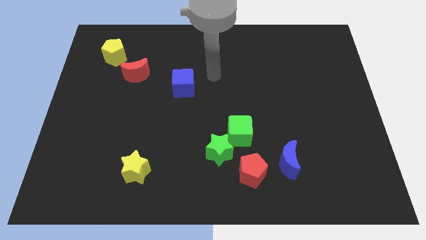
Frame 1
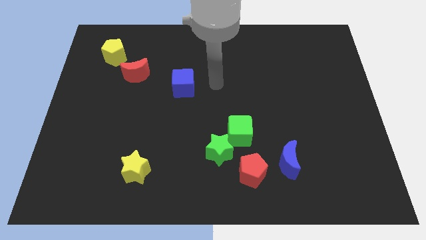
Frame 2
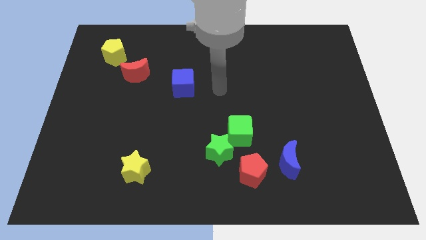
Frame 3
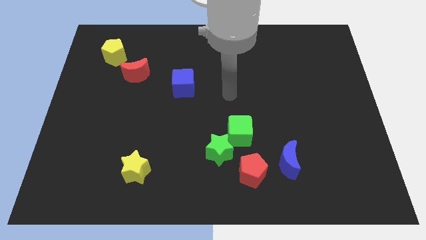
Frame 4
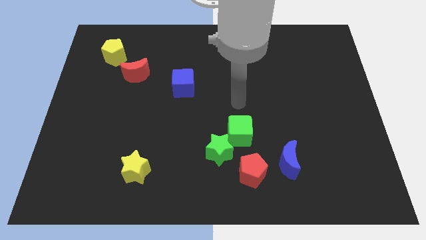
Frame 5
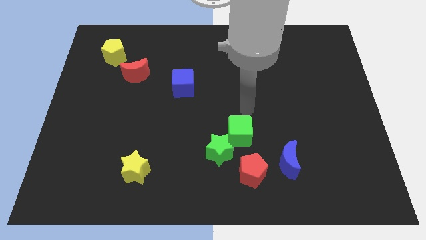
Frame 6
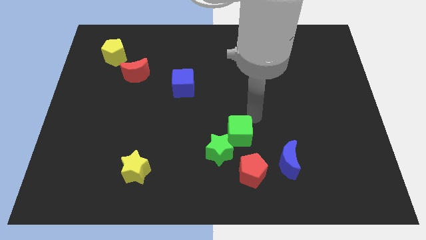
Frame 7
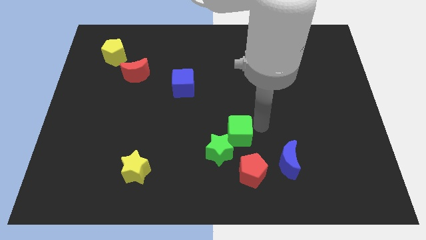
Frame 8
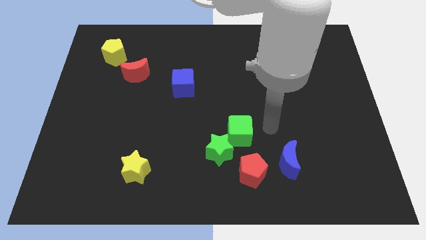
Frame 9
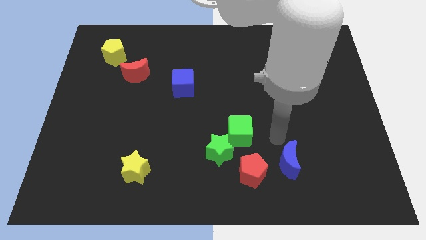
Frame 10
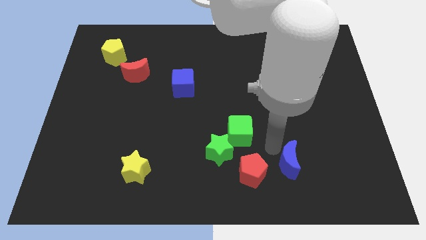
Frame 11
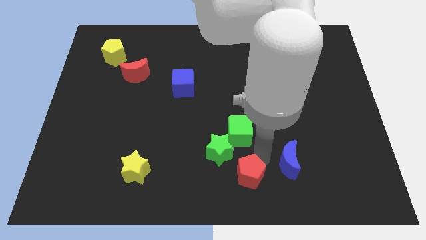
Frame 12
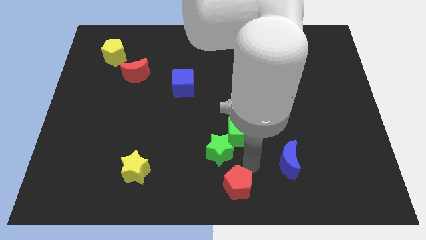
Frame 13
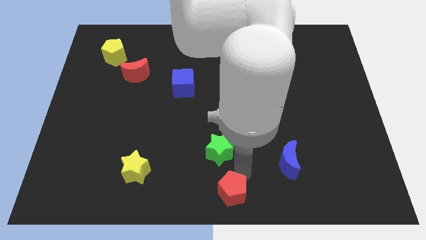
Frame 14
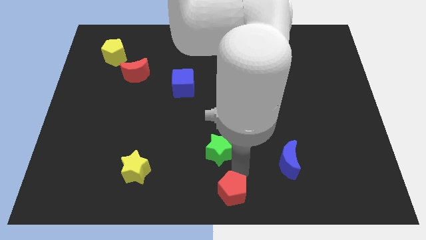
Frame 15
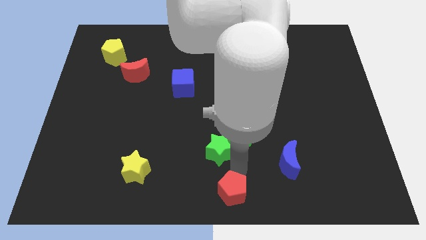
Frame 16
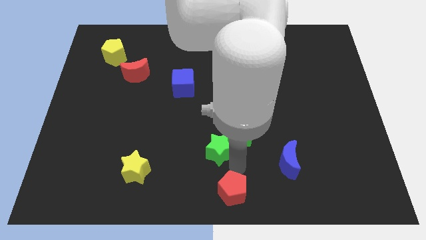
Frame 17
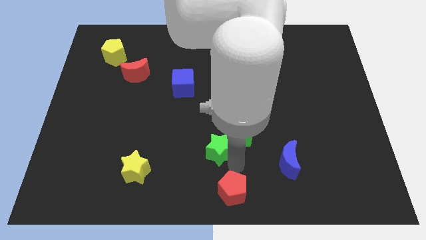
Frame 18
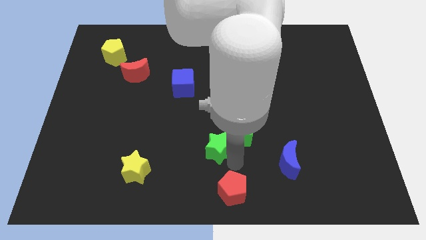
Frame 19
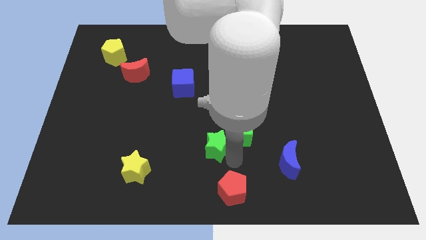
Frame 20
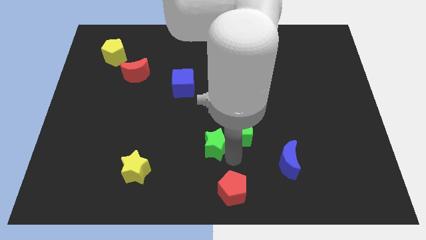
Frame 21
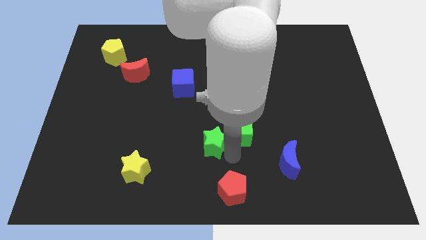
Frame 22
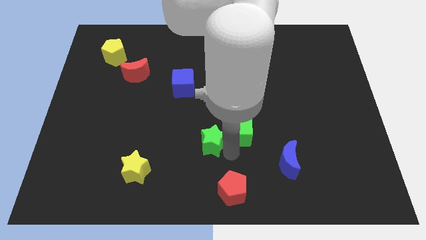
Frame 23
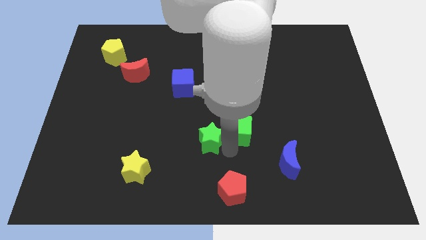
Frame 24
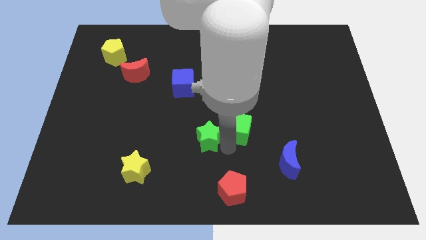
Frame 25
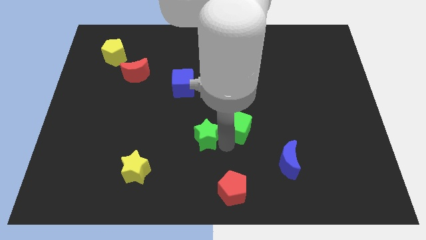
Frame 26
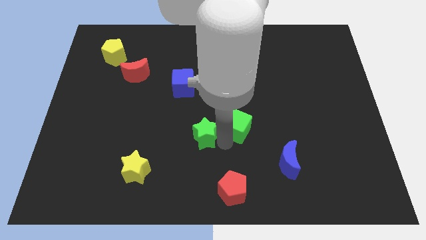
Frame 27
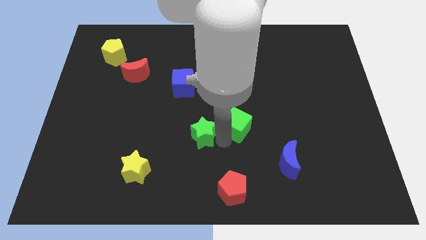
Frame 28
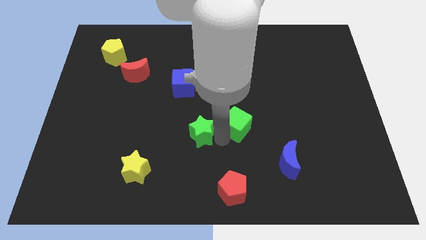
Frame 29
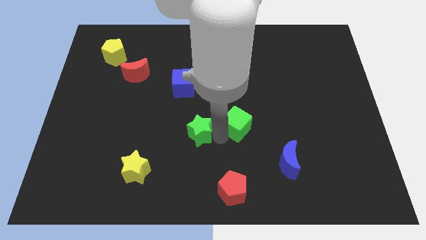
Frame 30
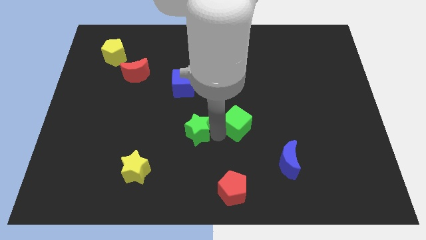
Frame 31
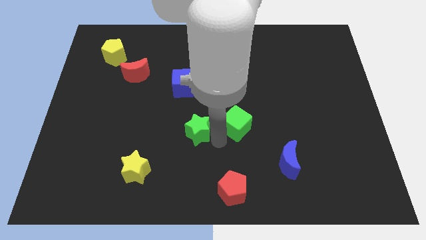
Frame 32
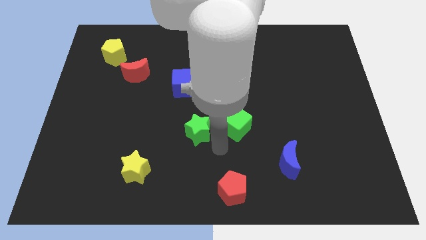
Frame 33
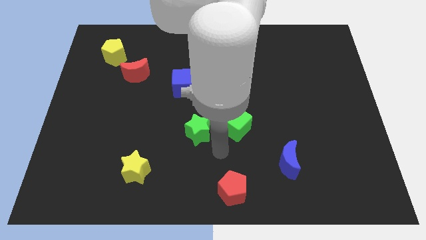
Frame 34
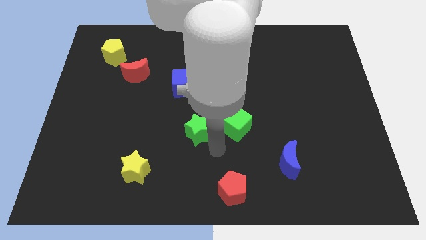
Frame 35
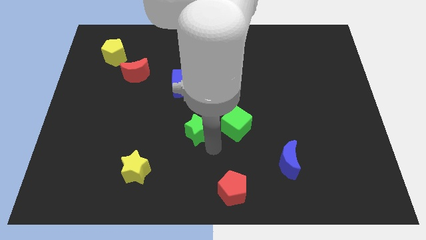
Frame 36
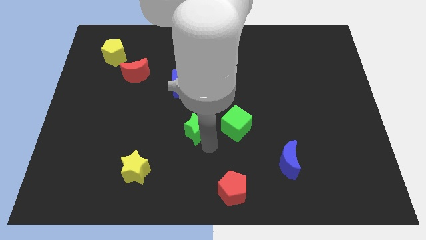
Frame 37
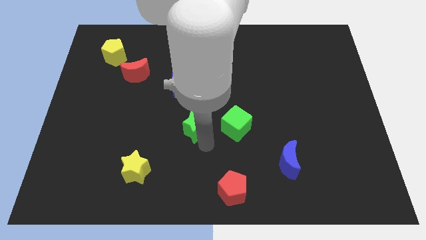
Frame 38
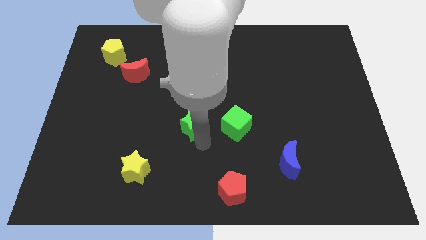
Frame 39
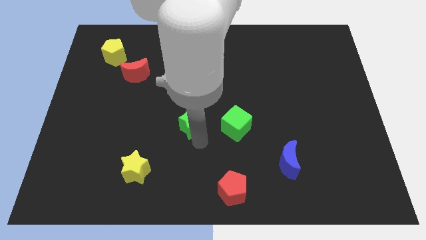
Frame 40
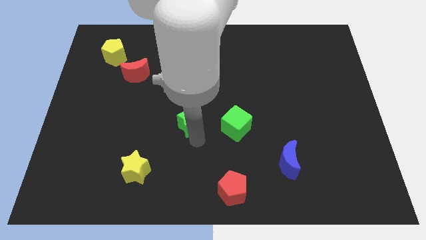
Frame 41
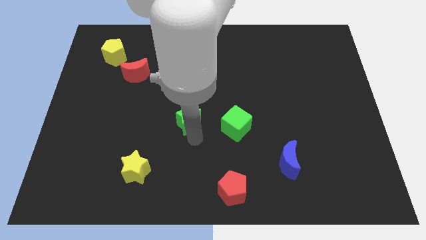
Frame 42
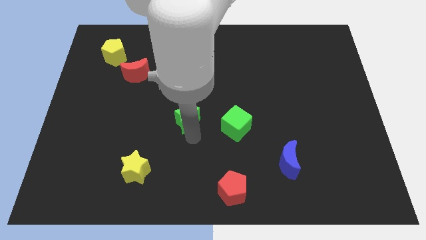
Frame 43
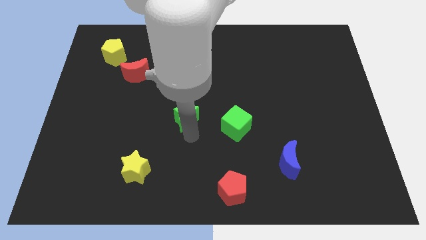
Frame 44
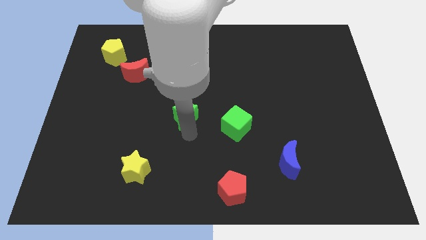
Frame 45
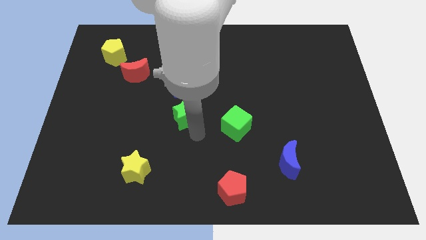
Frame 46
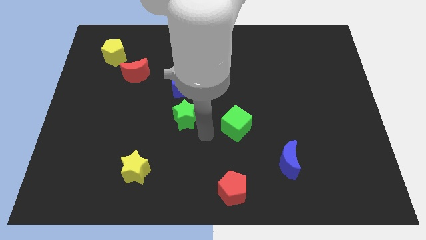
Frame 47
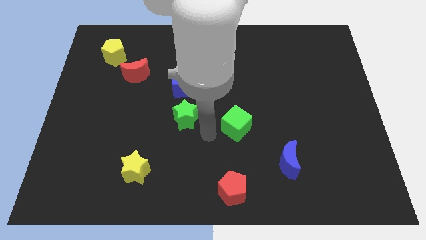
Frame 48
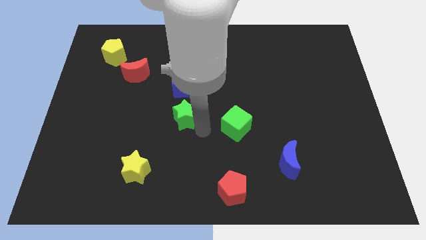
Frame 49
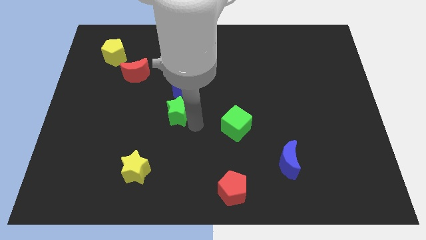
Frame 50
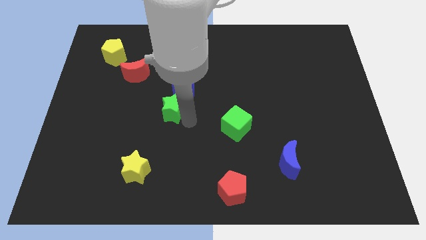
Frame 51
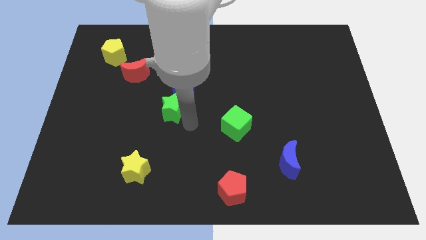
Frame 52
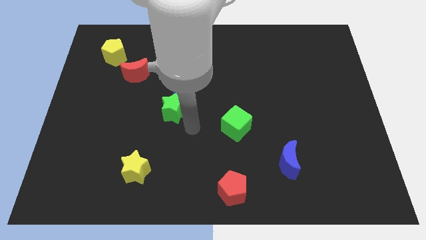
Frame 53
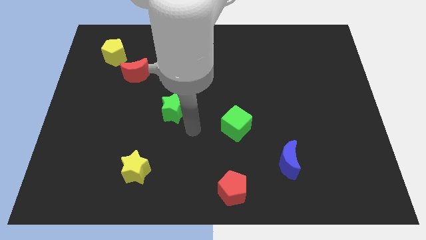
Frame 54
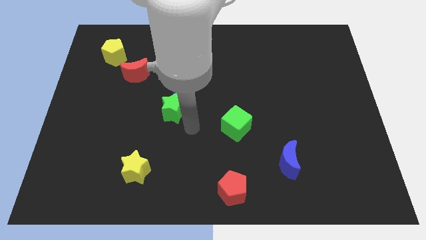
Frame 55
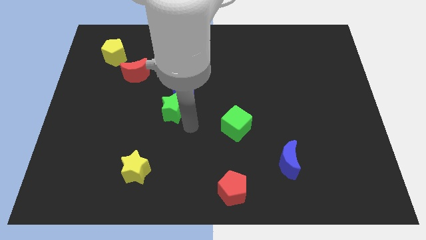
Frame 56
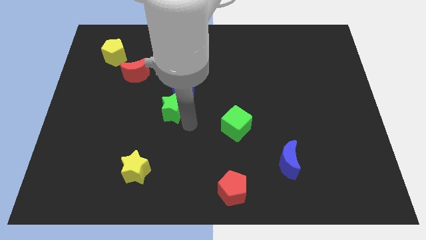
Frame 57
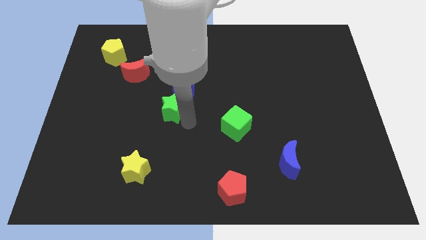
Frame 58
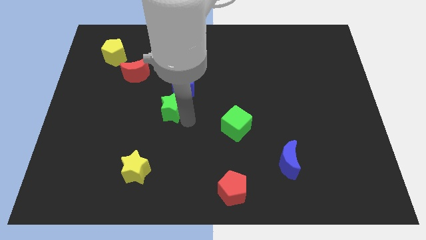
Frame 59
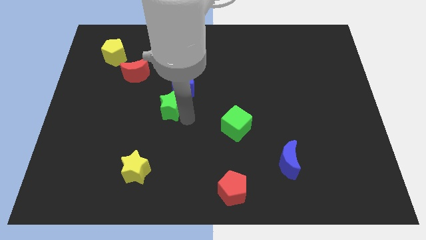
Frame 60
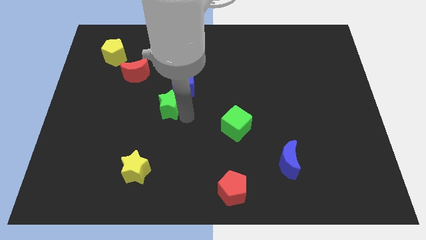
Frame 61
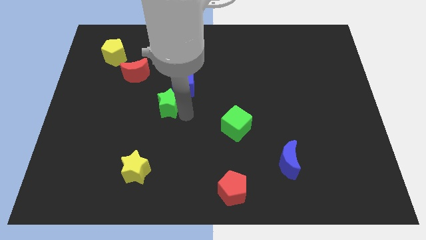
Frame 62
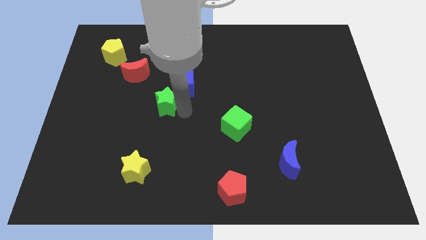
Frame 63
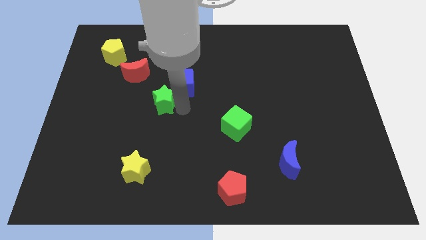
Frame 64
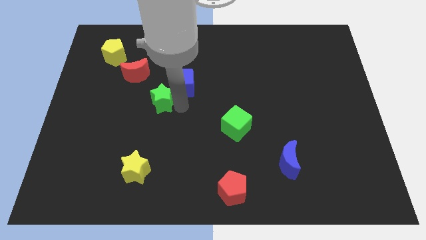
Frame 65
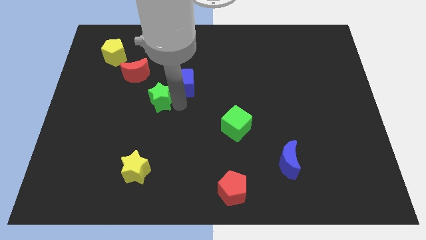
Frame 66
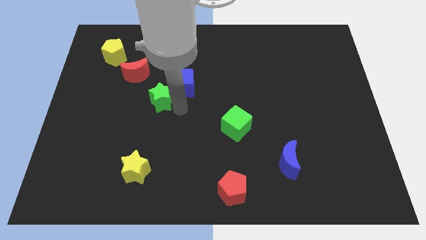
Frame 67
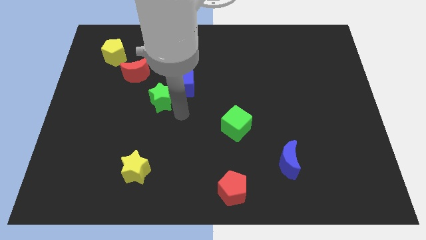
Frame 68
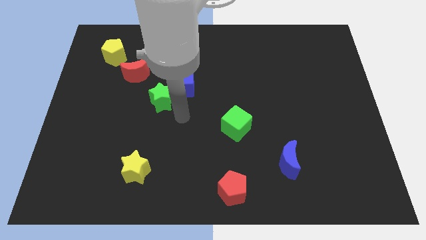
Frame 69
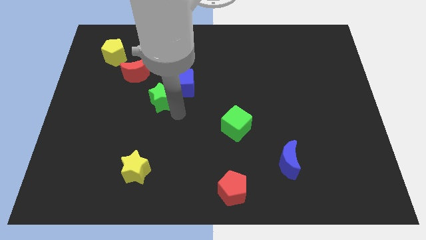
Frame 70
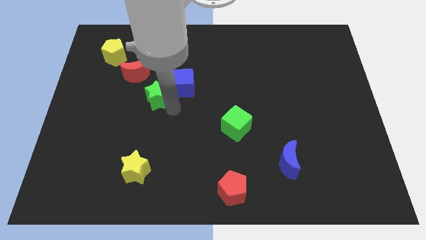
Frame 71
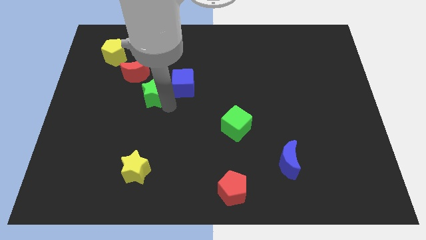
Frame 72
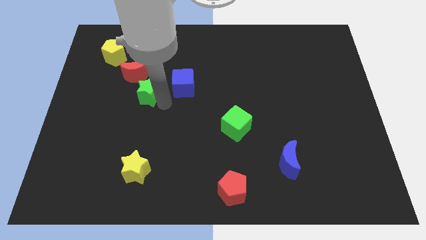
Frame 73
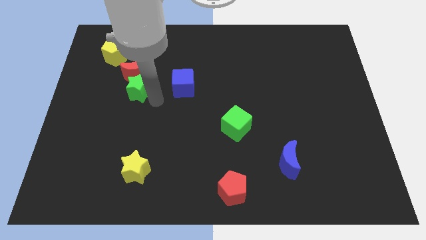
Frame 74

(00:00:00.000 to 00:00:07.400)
slide the green star towards the red moon
